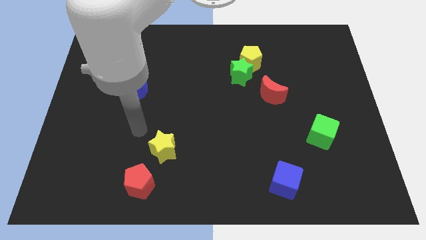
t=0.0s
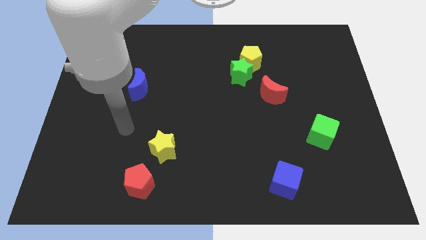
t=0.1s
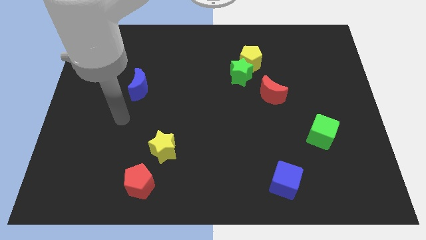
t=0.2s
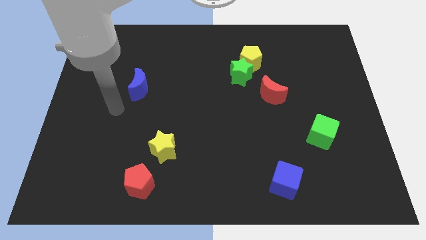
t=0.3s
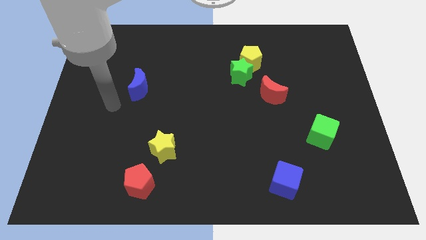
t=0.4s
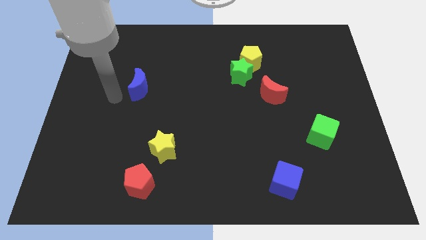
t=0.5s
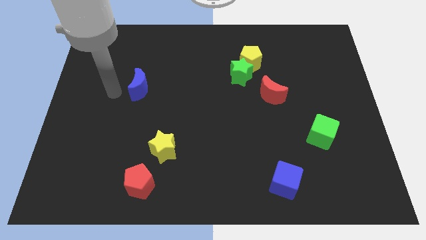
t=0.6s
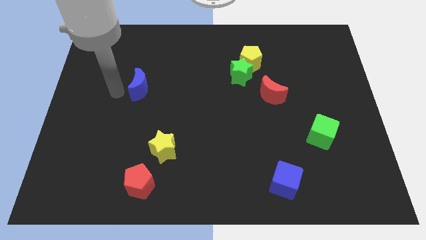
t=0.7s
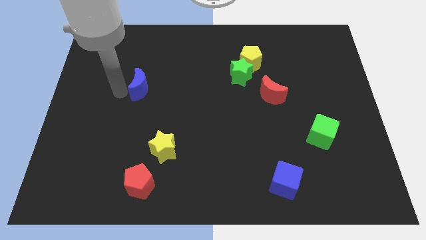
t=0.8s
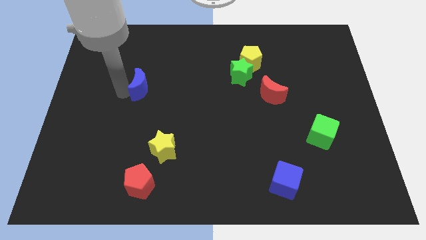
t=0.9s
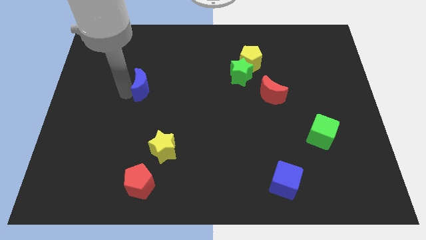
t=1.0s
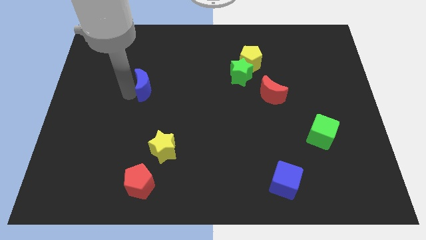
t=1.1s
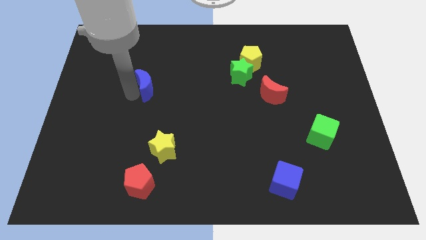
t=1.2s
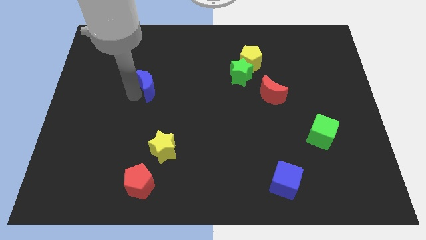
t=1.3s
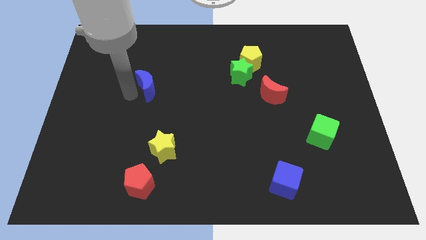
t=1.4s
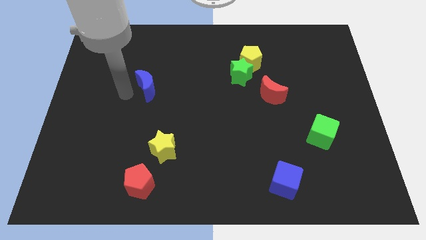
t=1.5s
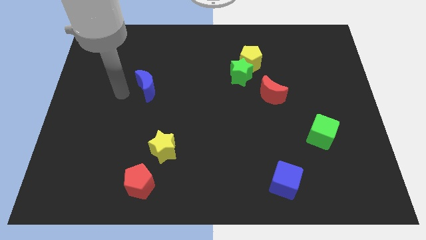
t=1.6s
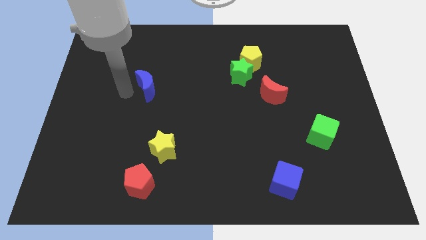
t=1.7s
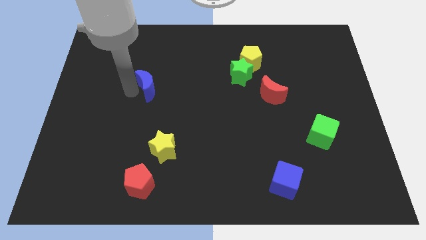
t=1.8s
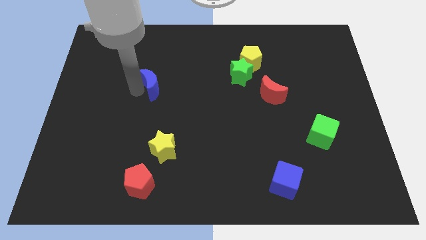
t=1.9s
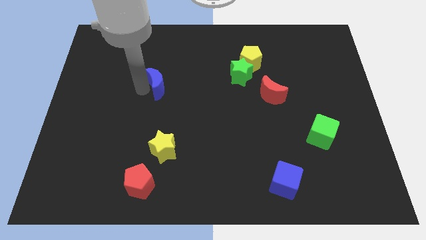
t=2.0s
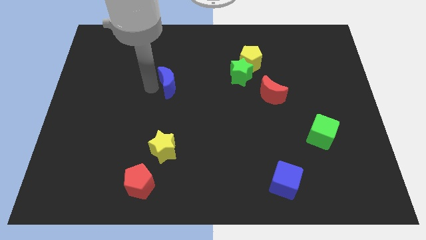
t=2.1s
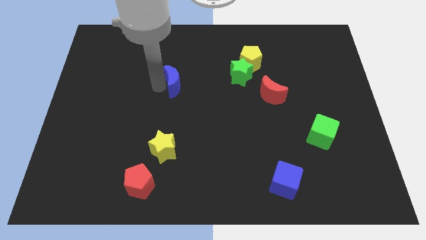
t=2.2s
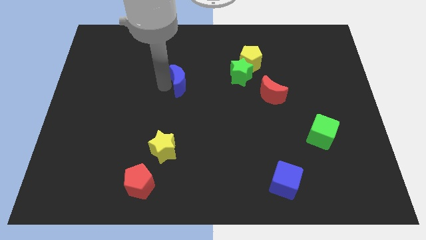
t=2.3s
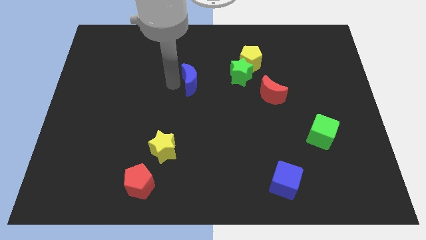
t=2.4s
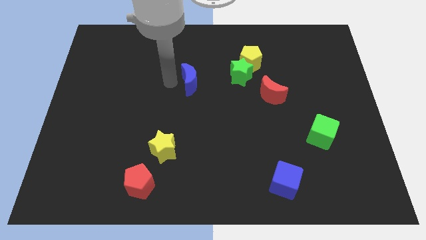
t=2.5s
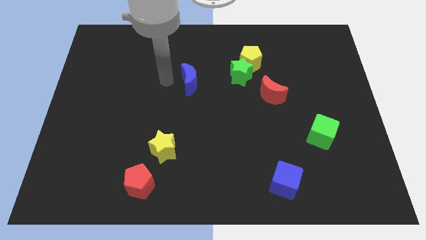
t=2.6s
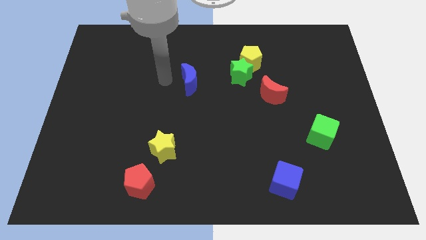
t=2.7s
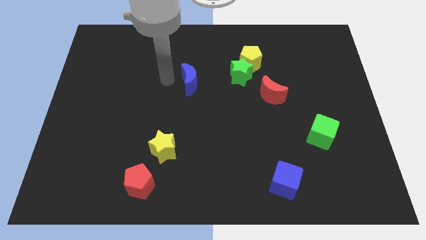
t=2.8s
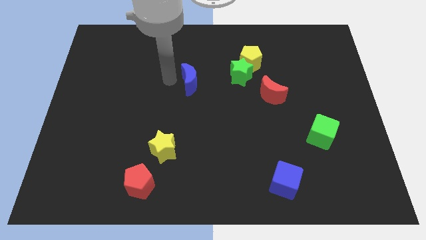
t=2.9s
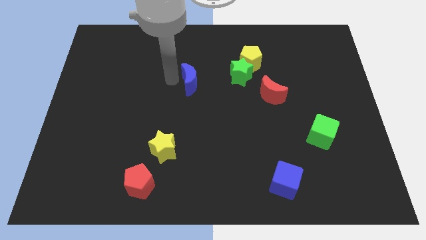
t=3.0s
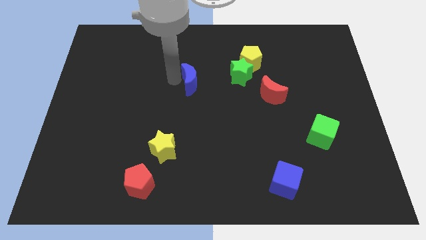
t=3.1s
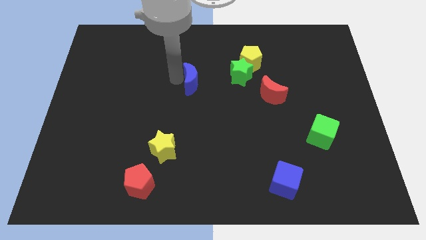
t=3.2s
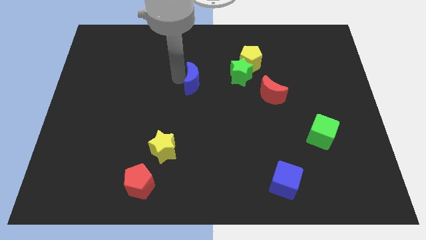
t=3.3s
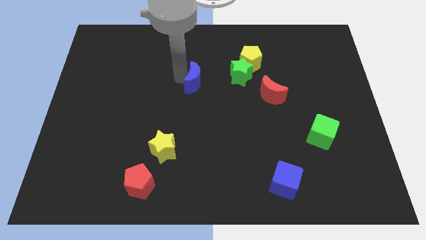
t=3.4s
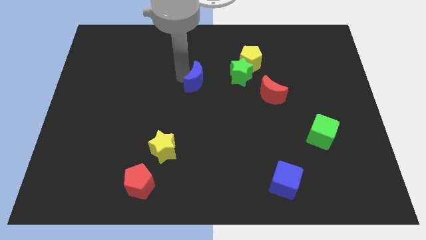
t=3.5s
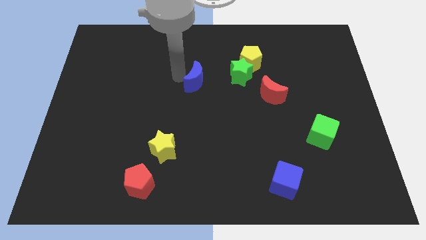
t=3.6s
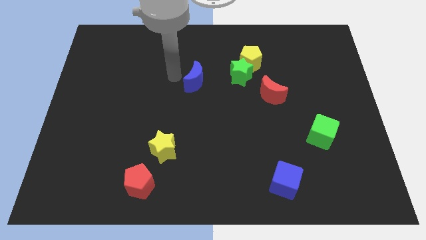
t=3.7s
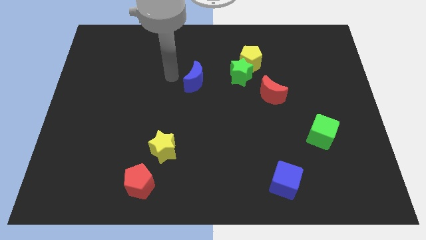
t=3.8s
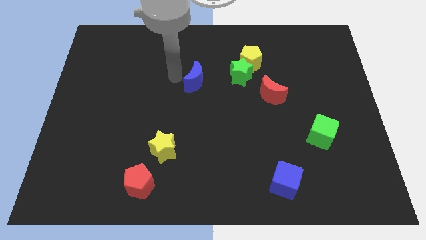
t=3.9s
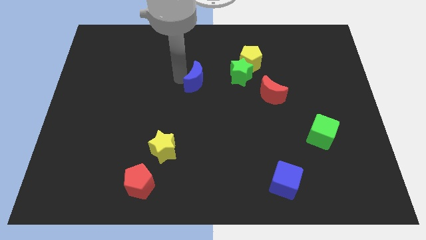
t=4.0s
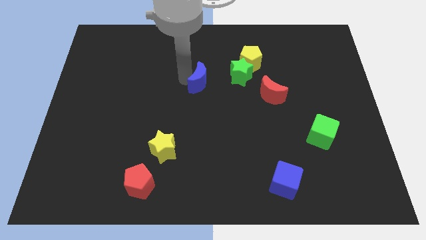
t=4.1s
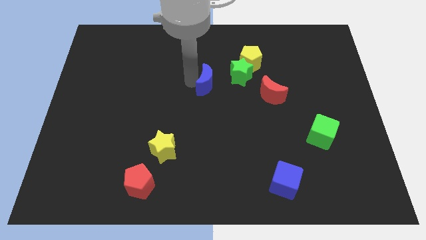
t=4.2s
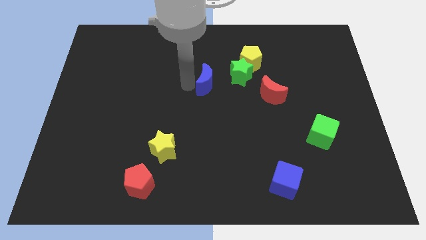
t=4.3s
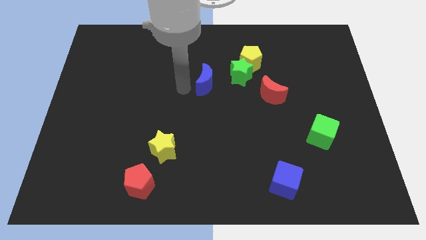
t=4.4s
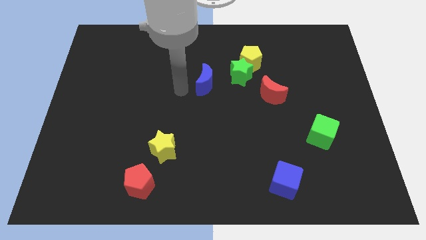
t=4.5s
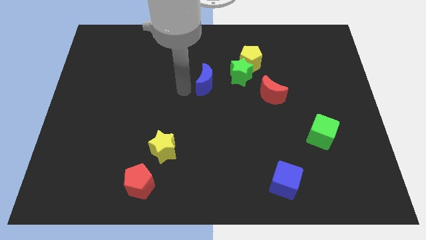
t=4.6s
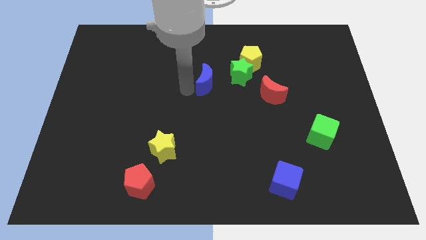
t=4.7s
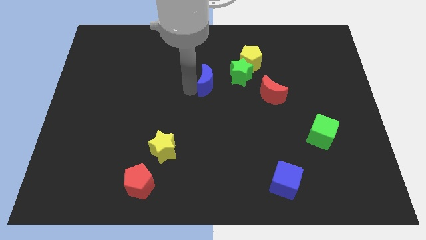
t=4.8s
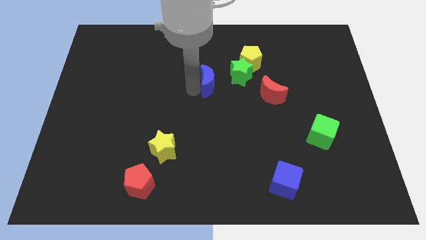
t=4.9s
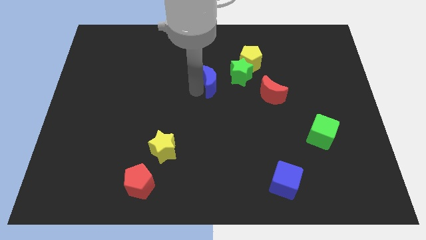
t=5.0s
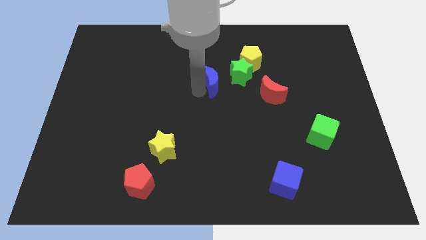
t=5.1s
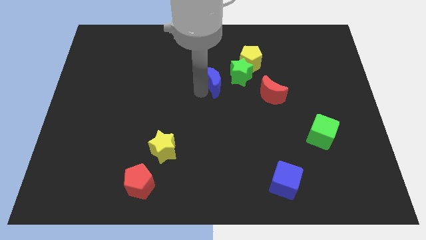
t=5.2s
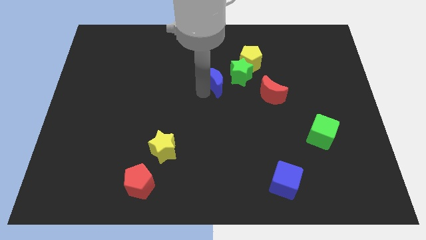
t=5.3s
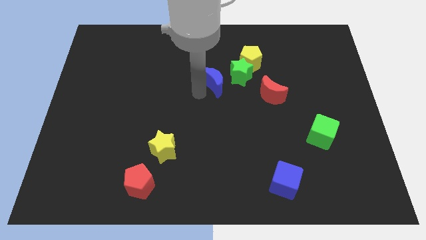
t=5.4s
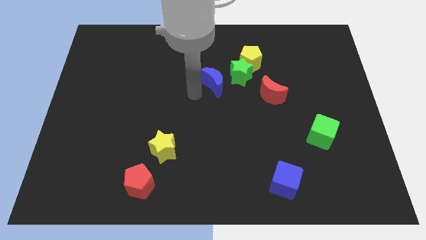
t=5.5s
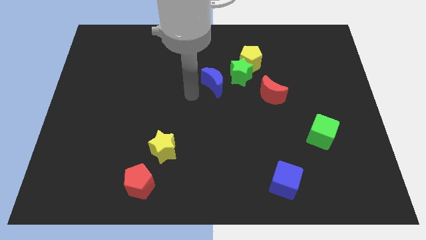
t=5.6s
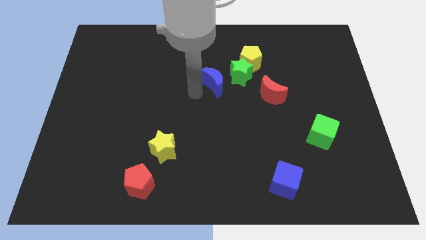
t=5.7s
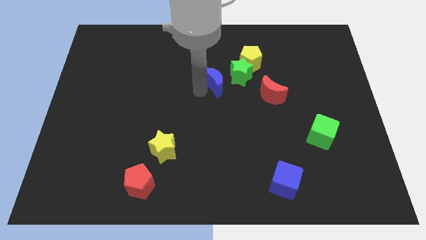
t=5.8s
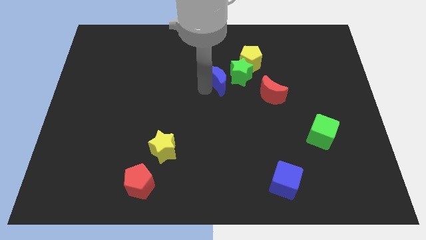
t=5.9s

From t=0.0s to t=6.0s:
slide the blue moon close to the green star

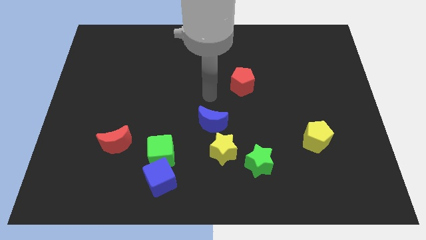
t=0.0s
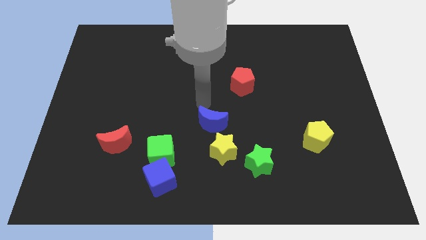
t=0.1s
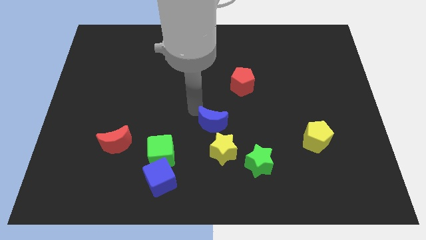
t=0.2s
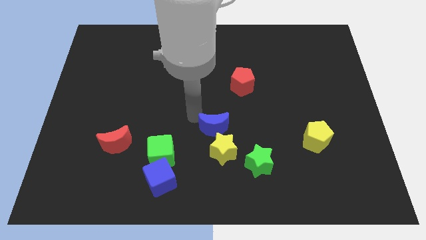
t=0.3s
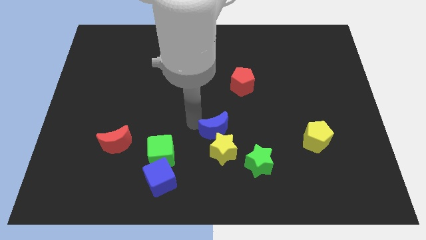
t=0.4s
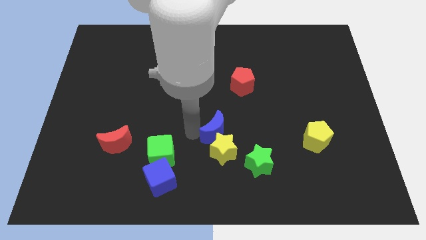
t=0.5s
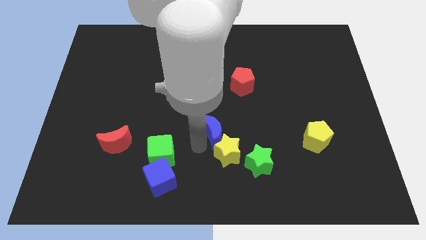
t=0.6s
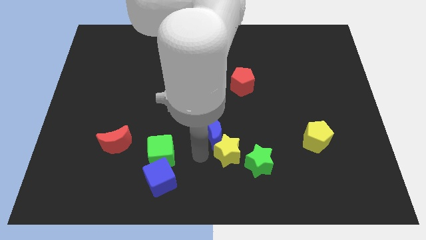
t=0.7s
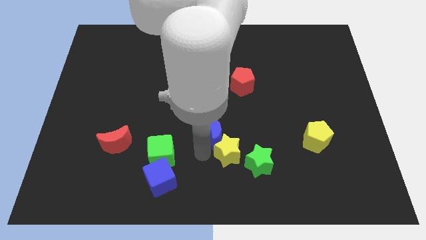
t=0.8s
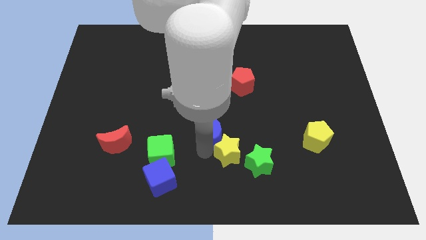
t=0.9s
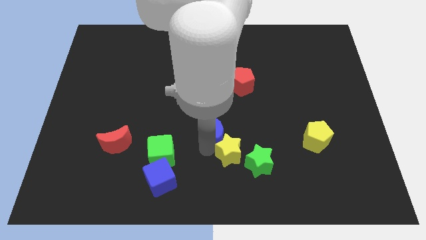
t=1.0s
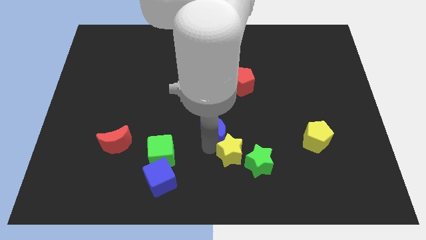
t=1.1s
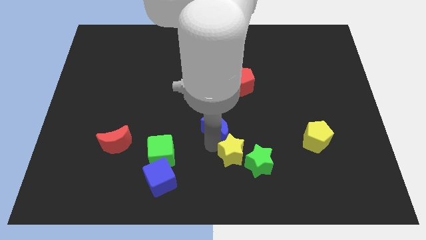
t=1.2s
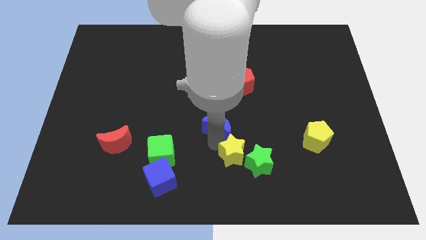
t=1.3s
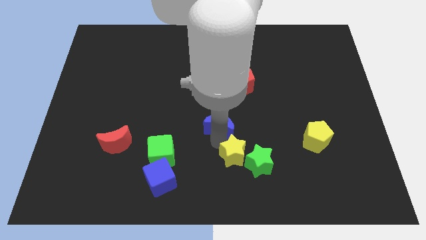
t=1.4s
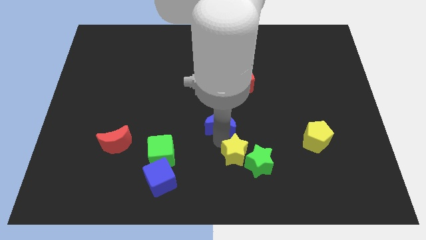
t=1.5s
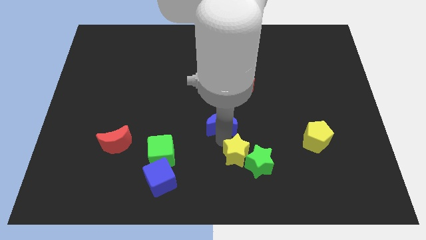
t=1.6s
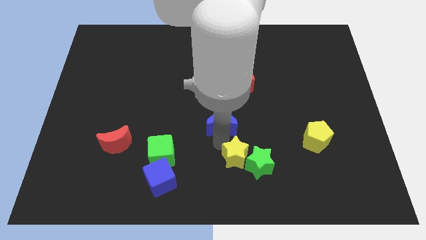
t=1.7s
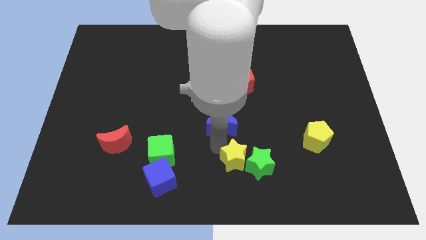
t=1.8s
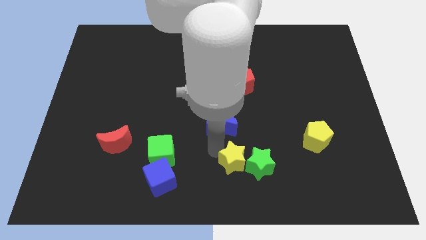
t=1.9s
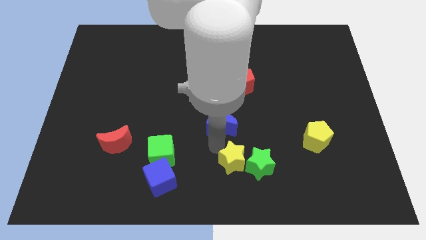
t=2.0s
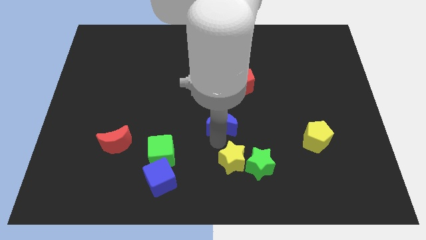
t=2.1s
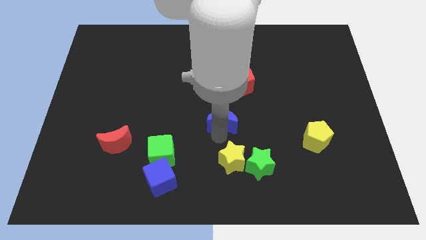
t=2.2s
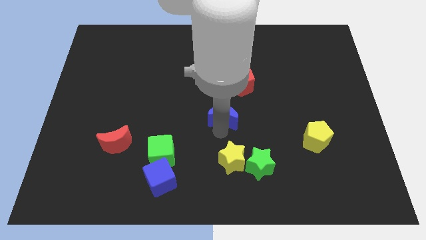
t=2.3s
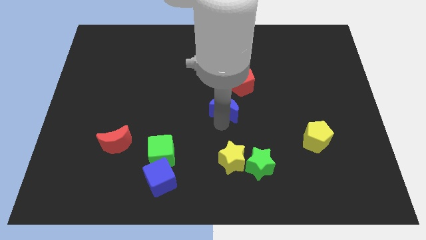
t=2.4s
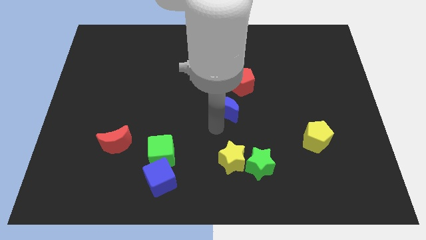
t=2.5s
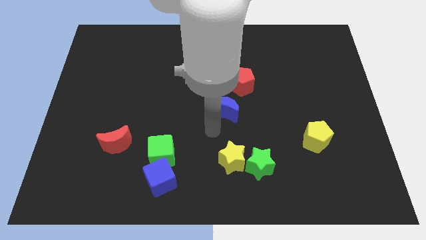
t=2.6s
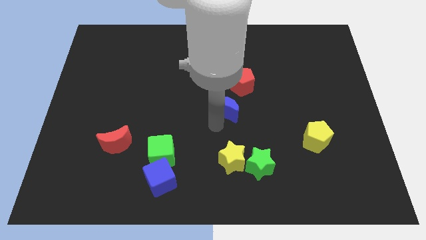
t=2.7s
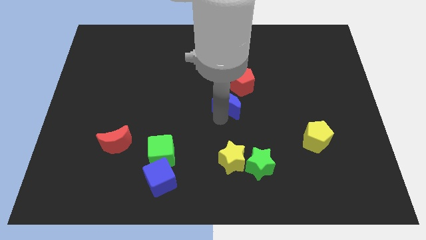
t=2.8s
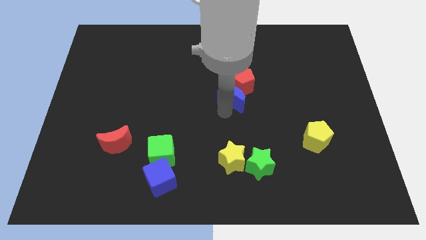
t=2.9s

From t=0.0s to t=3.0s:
move the blue moon next to the red pentagon
